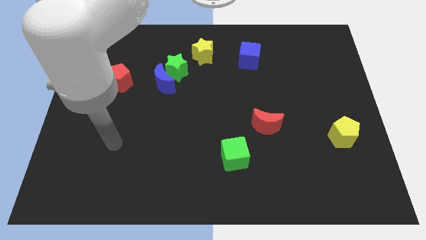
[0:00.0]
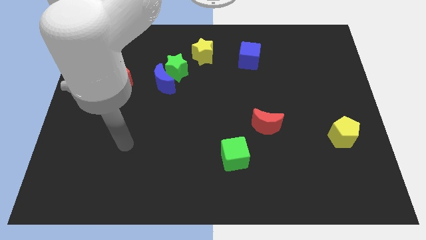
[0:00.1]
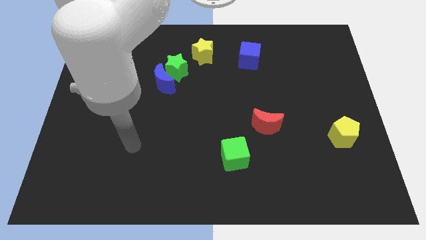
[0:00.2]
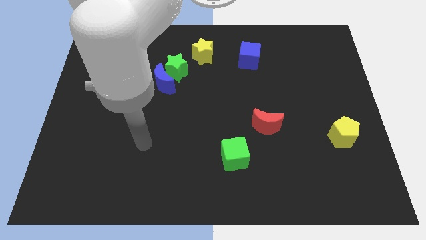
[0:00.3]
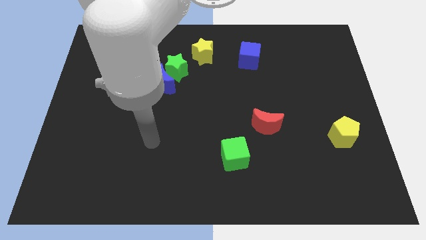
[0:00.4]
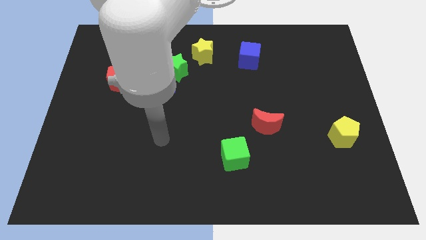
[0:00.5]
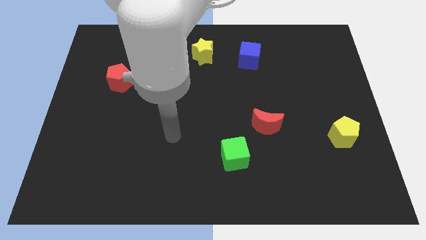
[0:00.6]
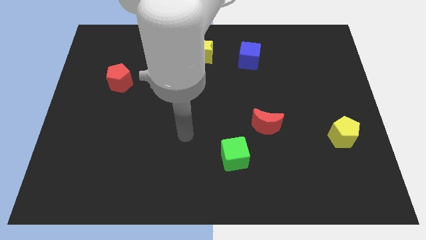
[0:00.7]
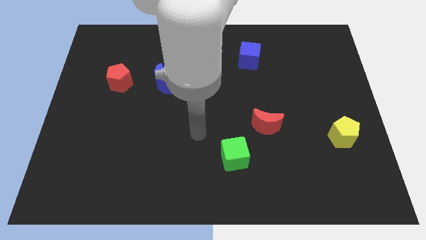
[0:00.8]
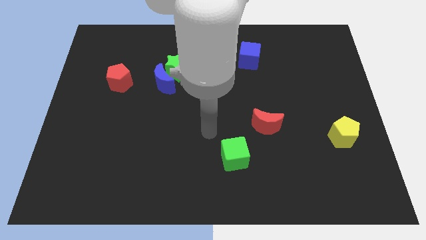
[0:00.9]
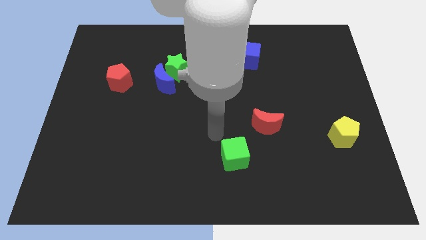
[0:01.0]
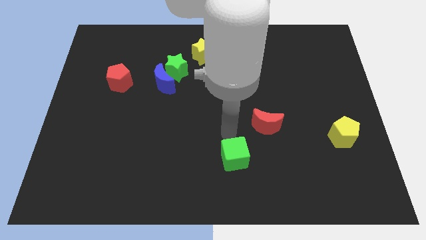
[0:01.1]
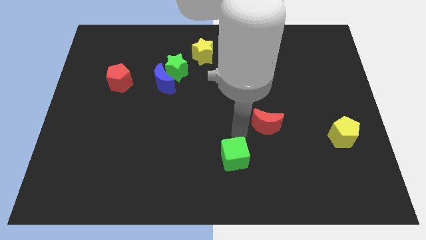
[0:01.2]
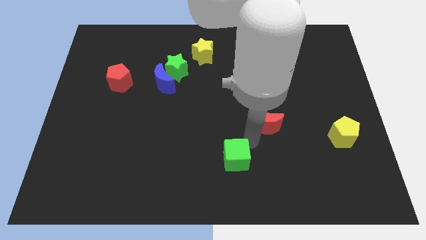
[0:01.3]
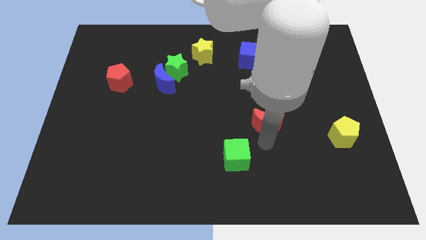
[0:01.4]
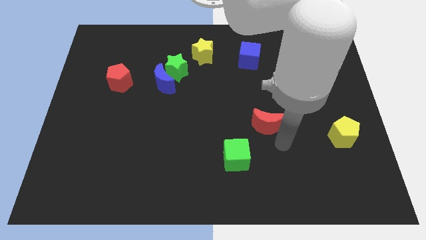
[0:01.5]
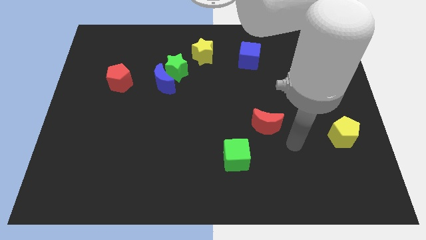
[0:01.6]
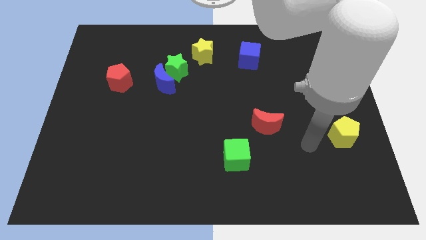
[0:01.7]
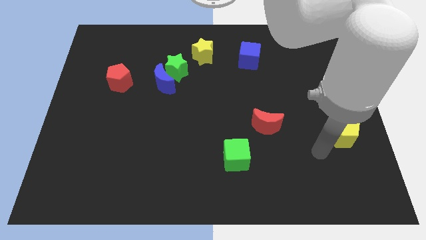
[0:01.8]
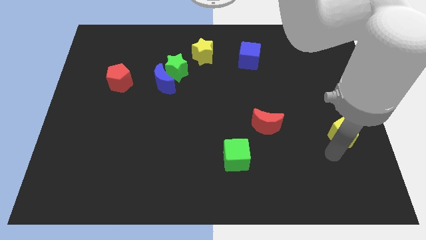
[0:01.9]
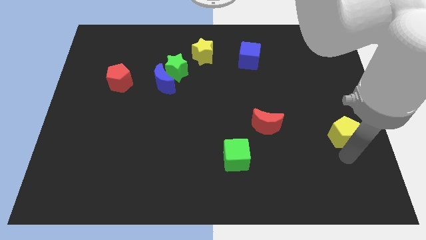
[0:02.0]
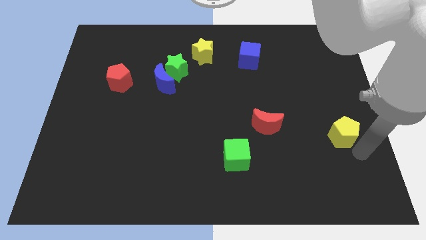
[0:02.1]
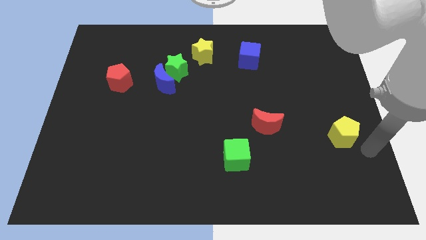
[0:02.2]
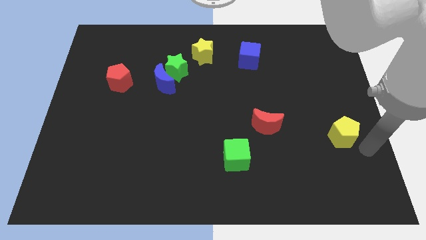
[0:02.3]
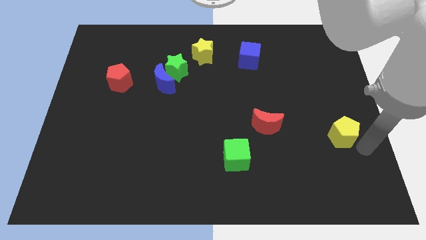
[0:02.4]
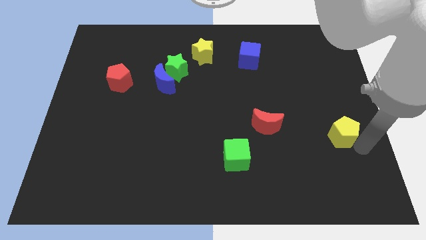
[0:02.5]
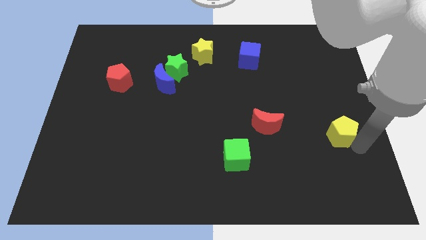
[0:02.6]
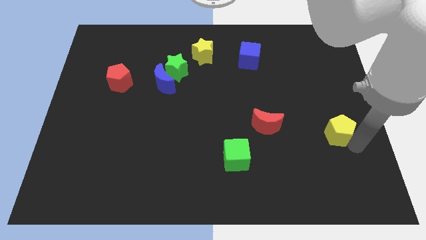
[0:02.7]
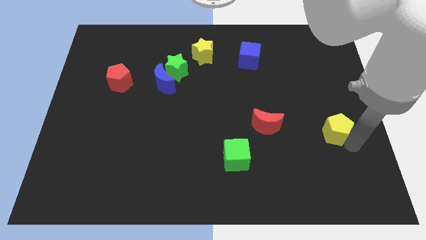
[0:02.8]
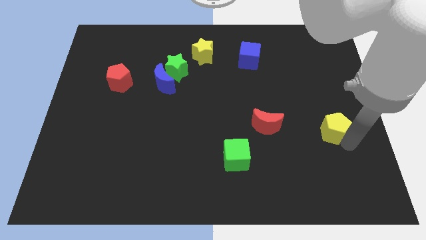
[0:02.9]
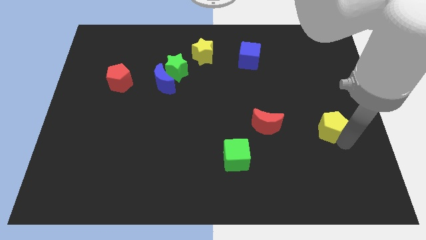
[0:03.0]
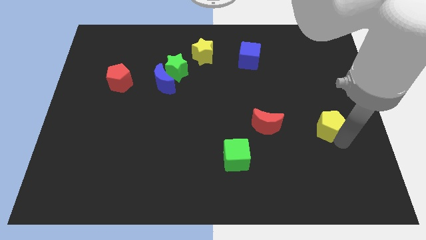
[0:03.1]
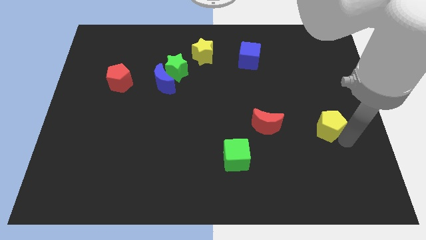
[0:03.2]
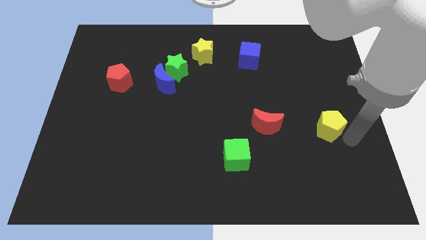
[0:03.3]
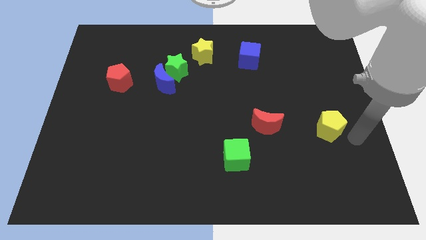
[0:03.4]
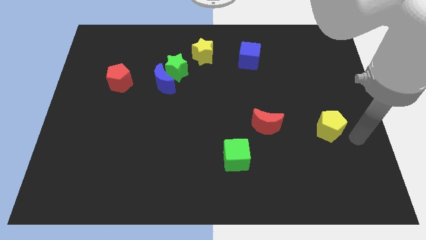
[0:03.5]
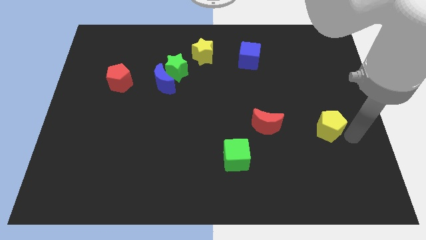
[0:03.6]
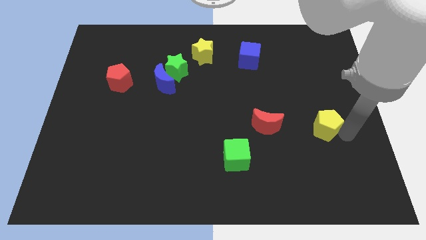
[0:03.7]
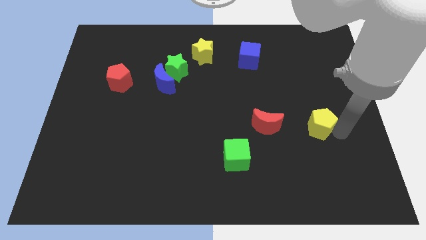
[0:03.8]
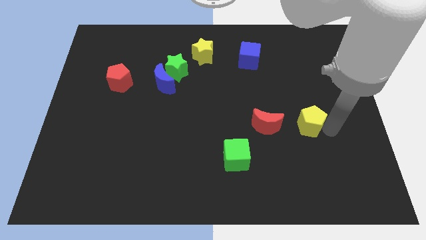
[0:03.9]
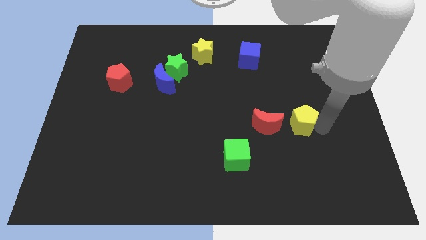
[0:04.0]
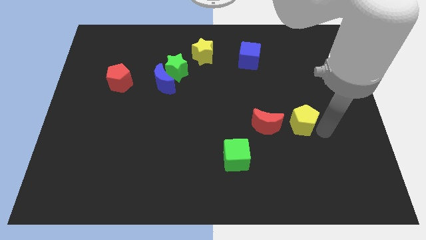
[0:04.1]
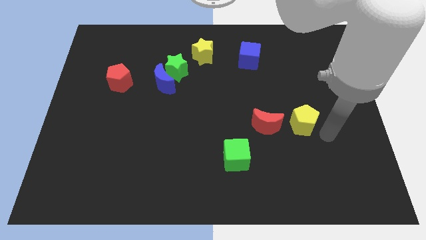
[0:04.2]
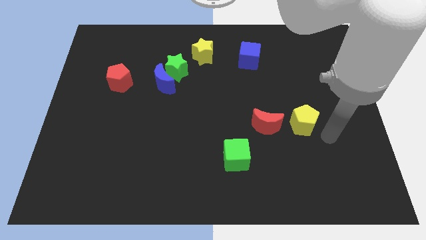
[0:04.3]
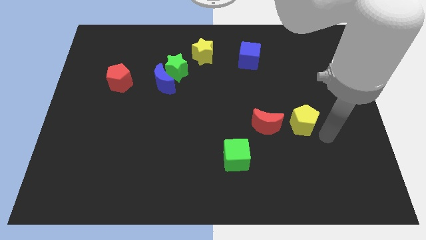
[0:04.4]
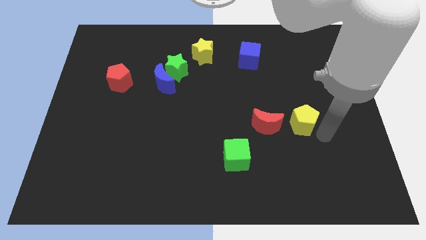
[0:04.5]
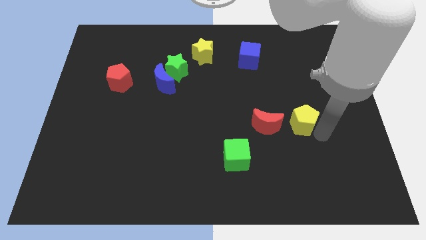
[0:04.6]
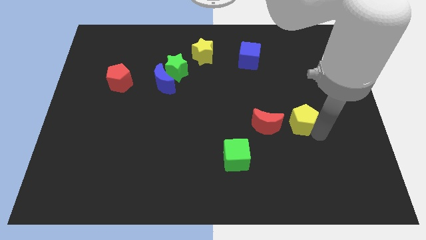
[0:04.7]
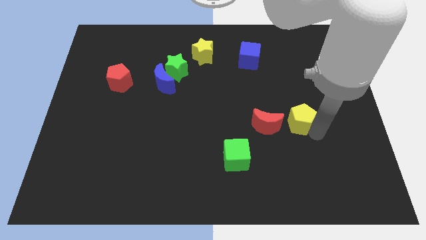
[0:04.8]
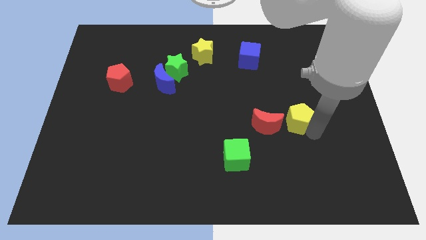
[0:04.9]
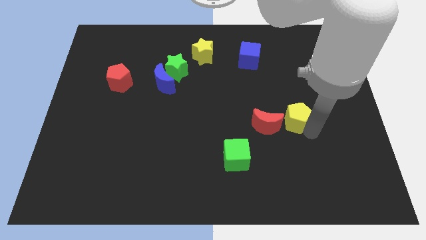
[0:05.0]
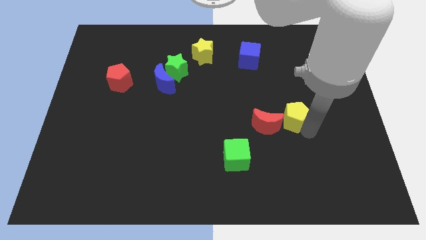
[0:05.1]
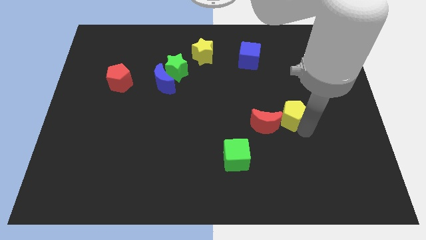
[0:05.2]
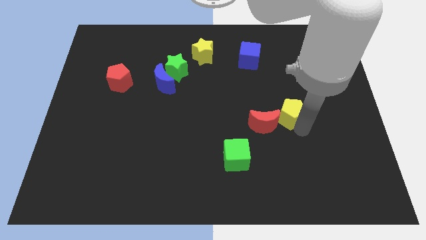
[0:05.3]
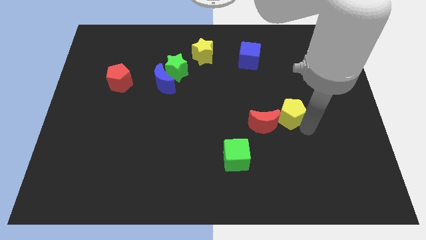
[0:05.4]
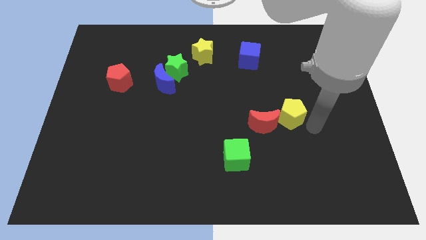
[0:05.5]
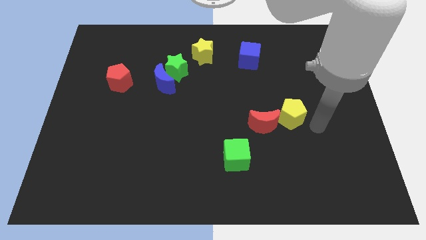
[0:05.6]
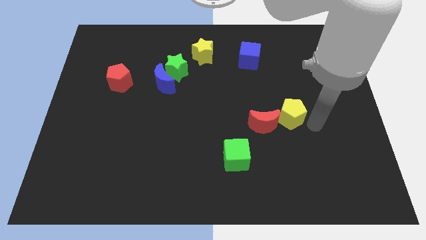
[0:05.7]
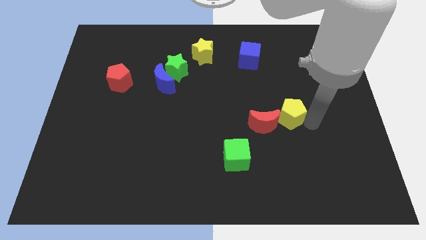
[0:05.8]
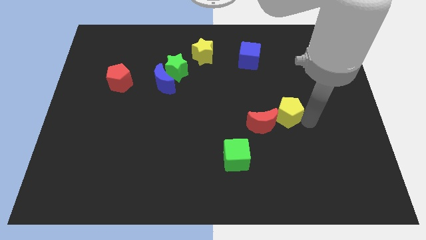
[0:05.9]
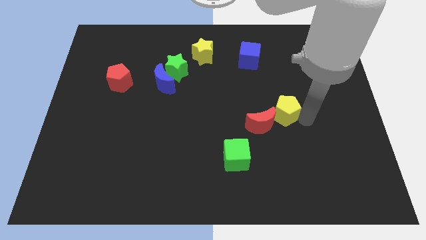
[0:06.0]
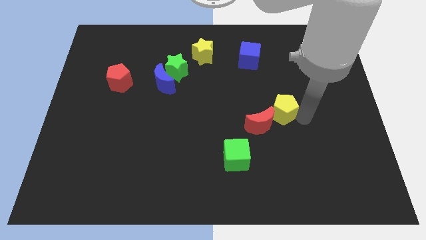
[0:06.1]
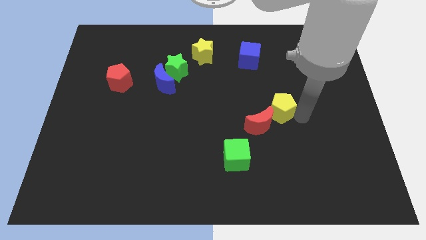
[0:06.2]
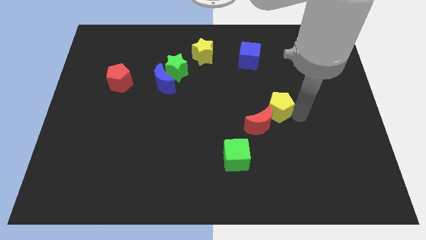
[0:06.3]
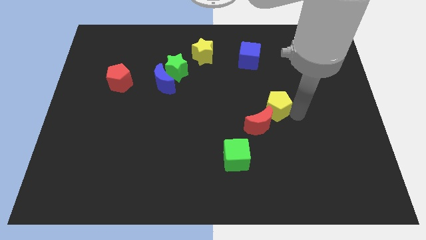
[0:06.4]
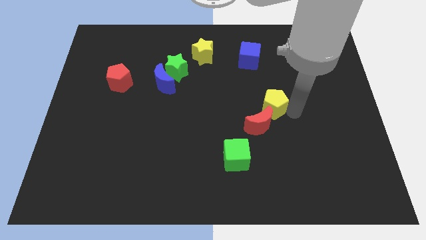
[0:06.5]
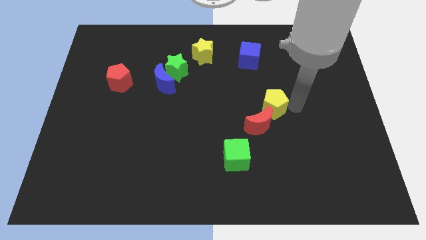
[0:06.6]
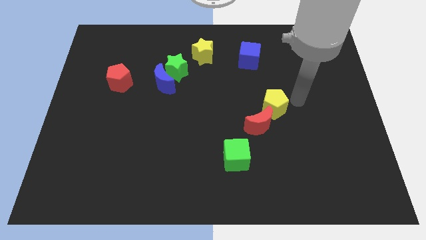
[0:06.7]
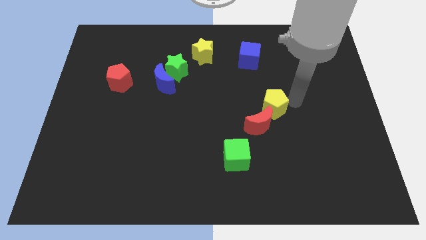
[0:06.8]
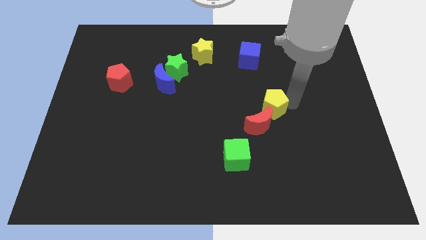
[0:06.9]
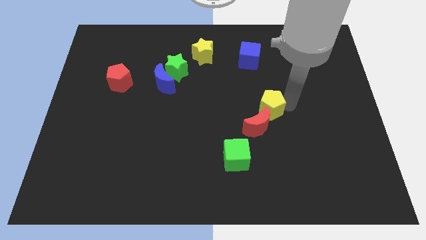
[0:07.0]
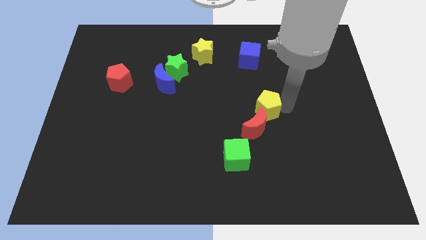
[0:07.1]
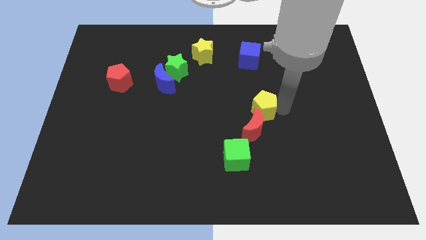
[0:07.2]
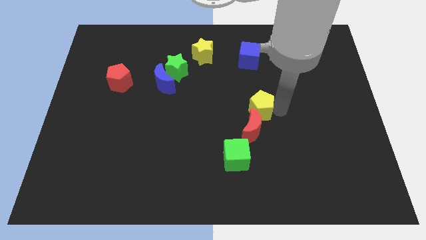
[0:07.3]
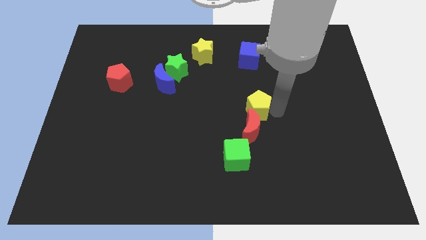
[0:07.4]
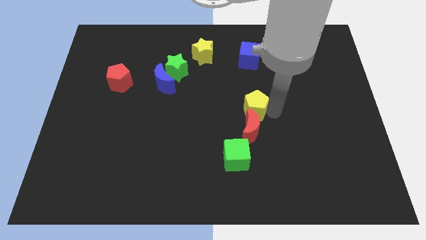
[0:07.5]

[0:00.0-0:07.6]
push the yellow pentagon above the green cube

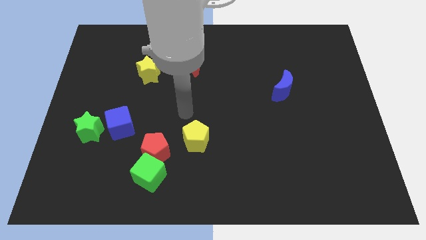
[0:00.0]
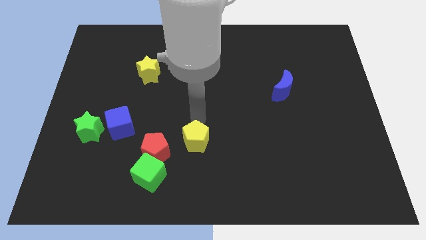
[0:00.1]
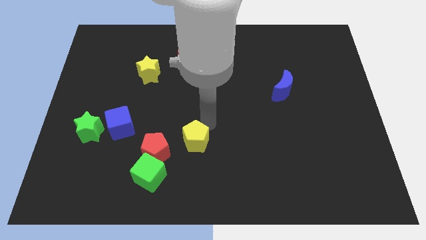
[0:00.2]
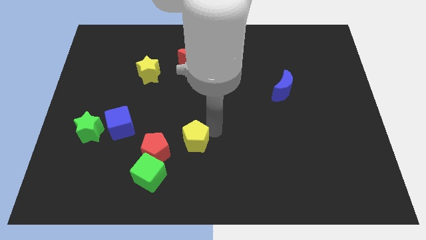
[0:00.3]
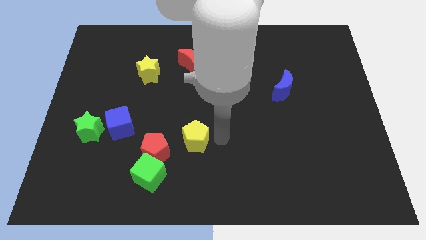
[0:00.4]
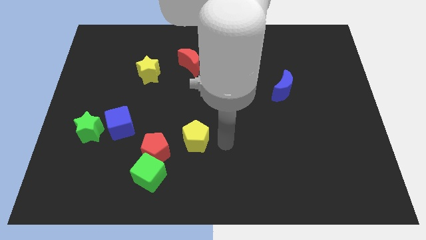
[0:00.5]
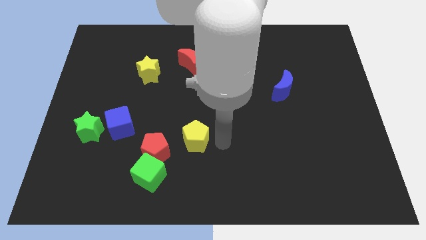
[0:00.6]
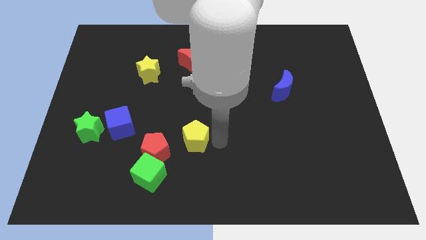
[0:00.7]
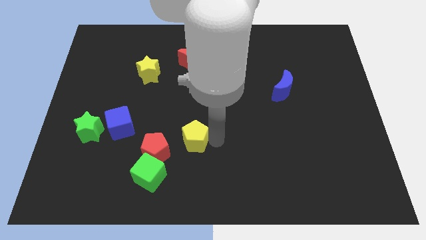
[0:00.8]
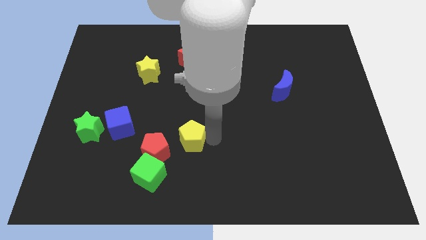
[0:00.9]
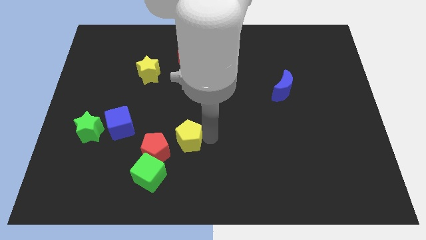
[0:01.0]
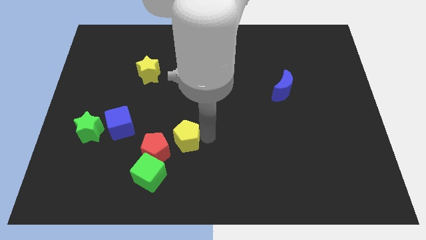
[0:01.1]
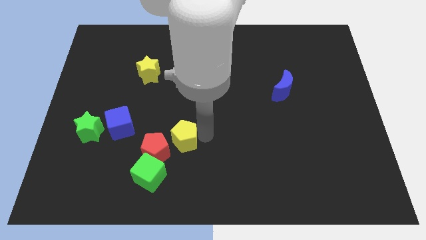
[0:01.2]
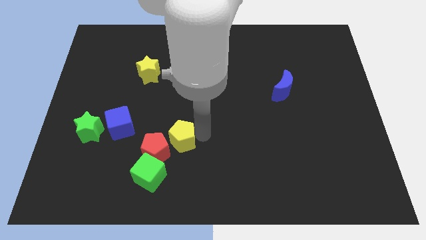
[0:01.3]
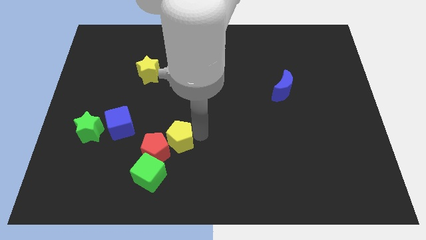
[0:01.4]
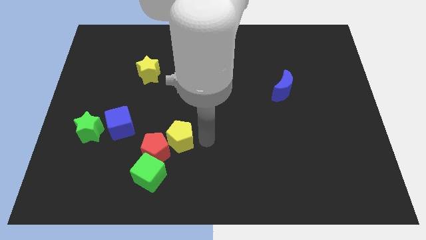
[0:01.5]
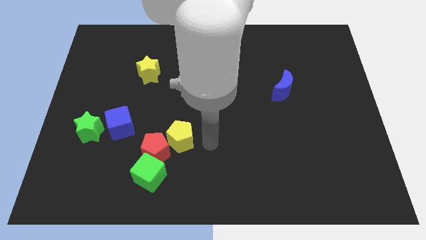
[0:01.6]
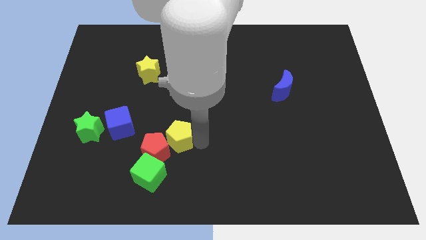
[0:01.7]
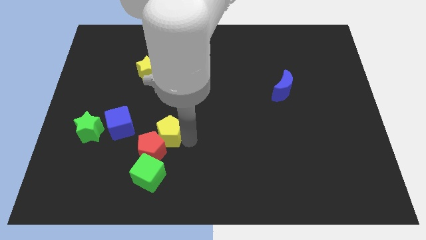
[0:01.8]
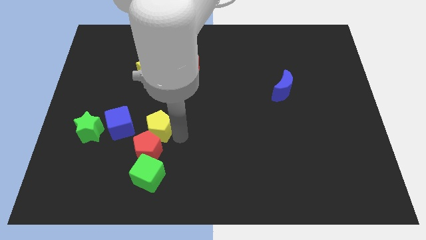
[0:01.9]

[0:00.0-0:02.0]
slide the yellow pentagon to the right side of the green star
